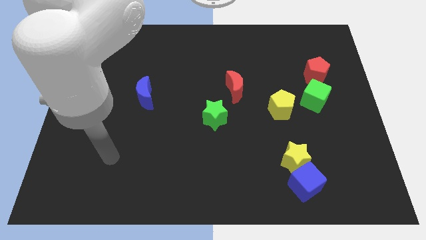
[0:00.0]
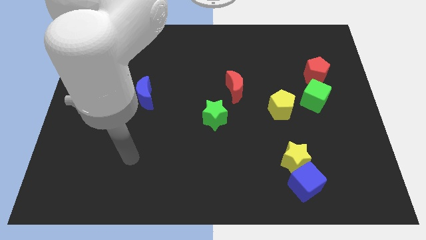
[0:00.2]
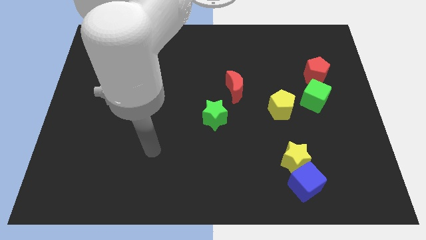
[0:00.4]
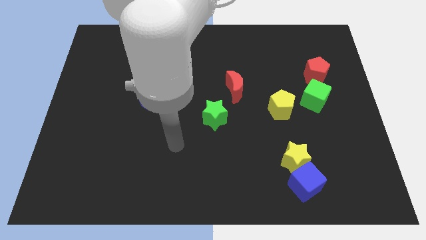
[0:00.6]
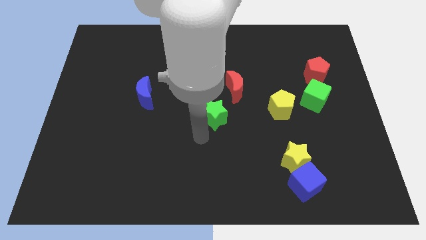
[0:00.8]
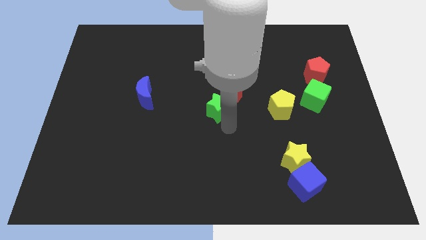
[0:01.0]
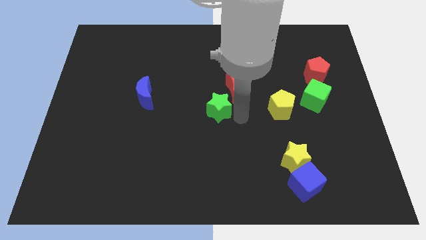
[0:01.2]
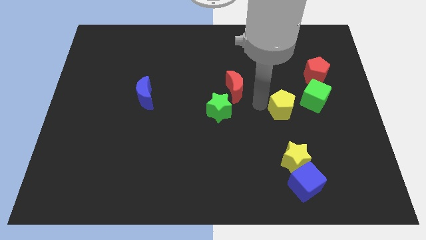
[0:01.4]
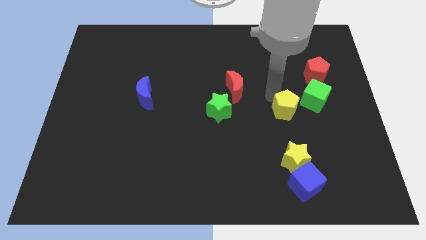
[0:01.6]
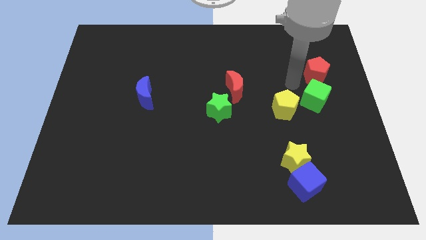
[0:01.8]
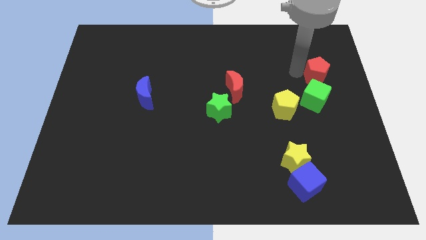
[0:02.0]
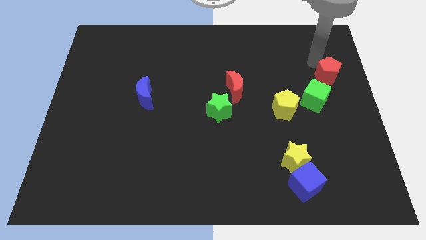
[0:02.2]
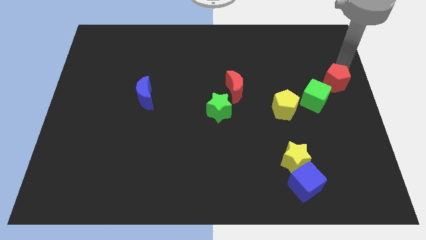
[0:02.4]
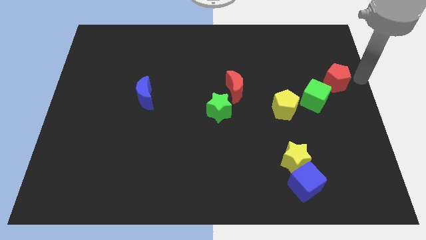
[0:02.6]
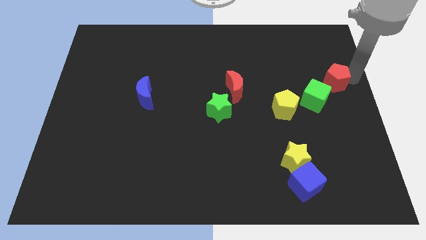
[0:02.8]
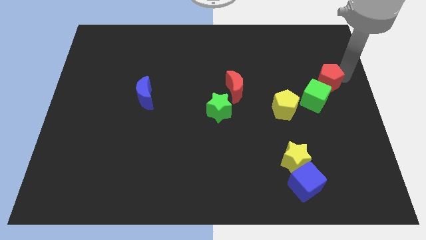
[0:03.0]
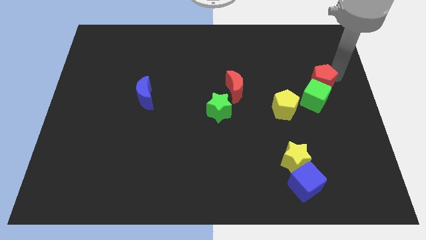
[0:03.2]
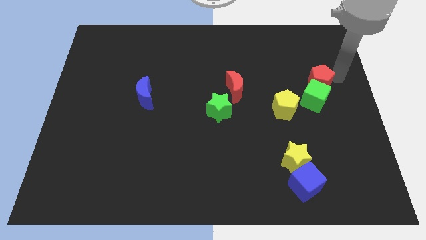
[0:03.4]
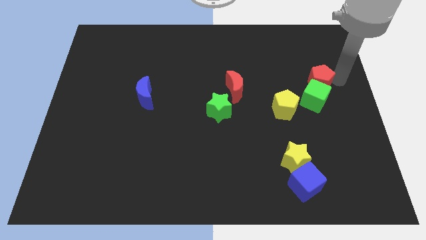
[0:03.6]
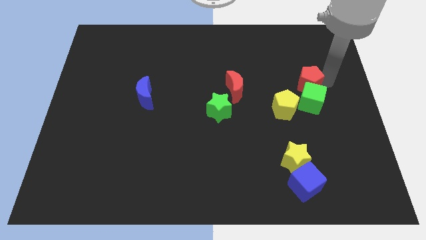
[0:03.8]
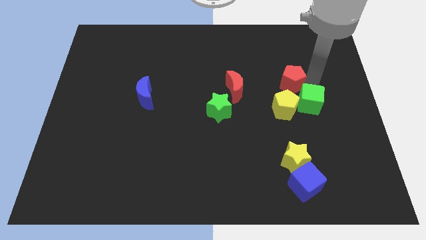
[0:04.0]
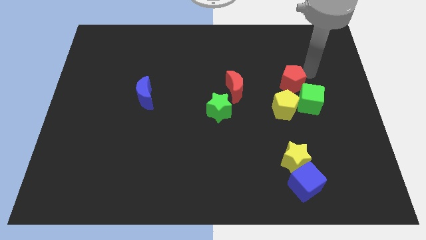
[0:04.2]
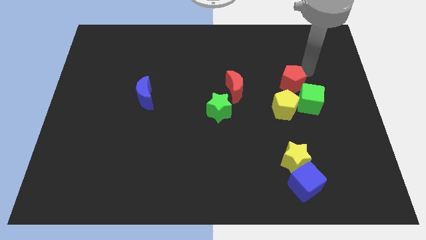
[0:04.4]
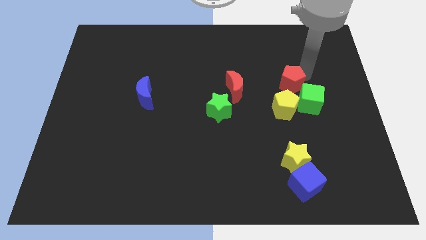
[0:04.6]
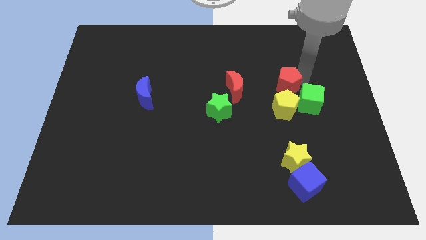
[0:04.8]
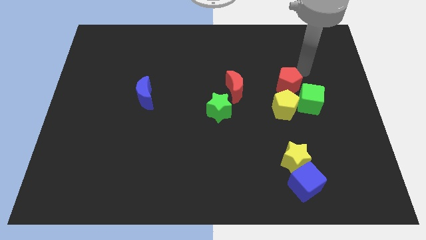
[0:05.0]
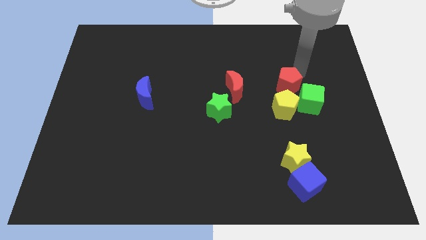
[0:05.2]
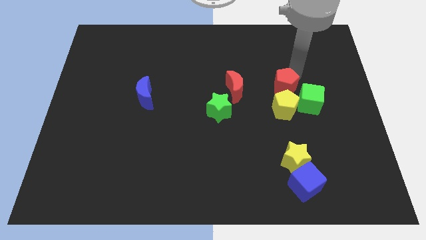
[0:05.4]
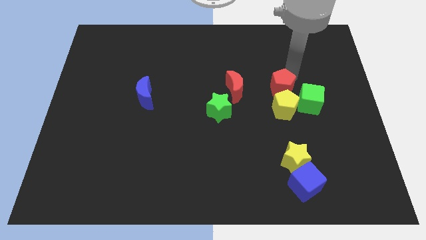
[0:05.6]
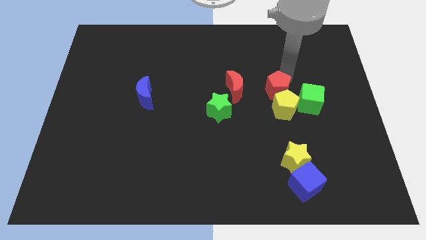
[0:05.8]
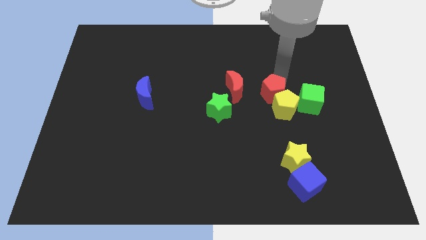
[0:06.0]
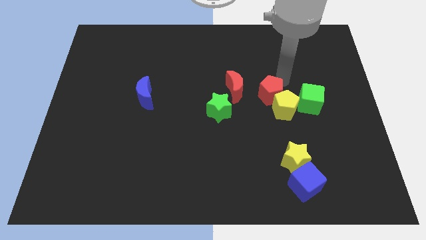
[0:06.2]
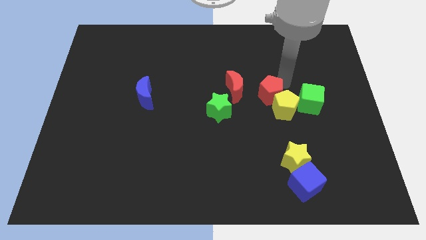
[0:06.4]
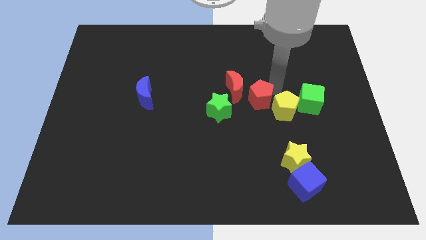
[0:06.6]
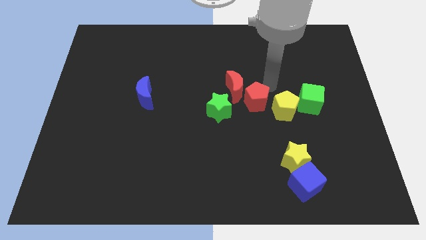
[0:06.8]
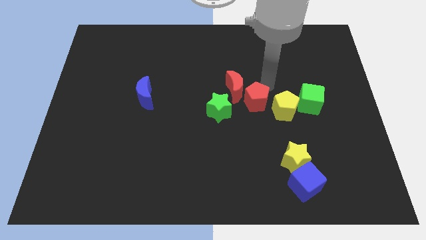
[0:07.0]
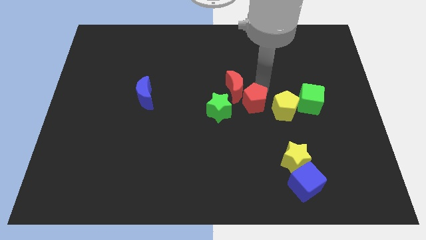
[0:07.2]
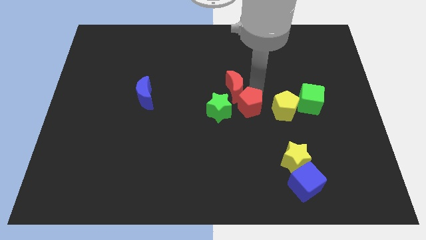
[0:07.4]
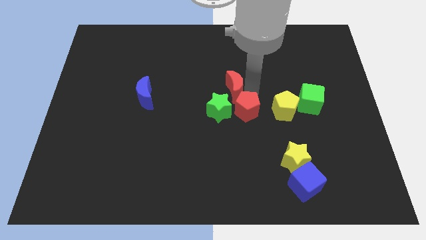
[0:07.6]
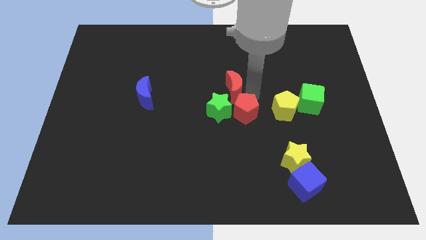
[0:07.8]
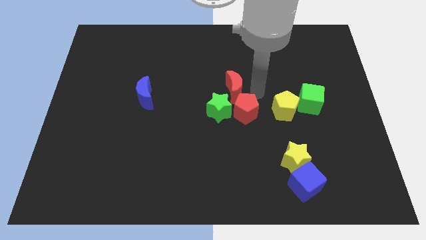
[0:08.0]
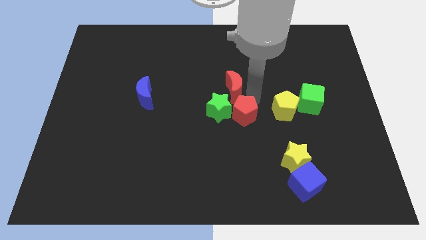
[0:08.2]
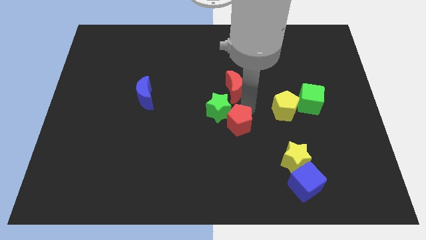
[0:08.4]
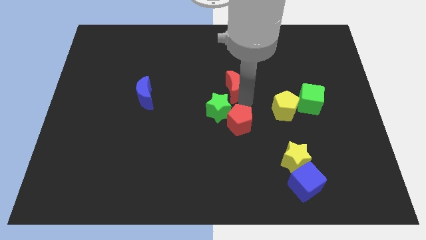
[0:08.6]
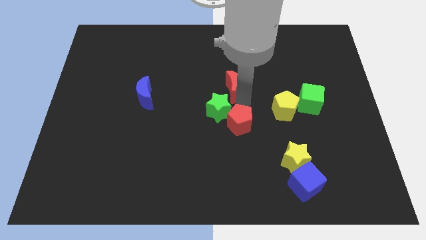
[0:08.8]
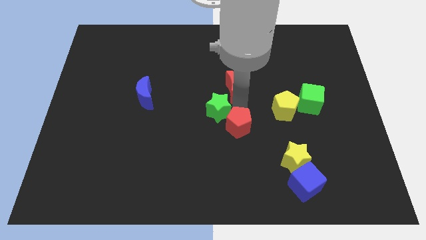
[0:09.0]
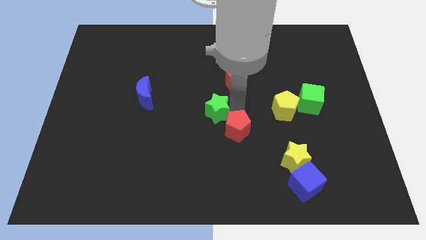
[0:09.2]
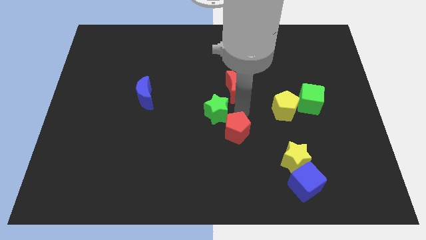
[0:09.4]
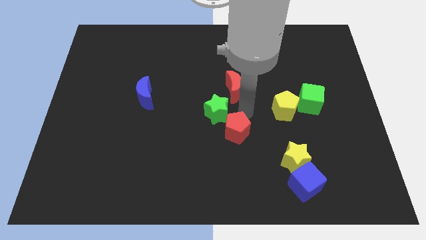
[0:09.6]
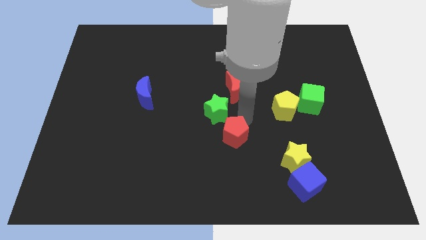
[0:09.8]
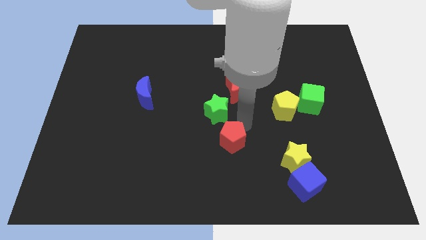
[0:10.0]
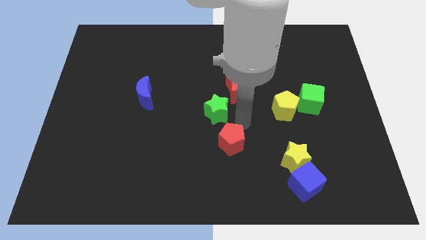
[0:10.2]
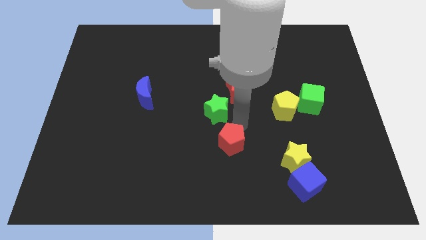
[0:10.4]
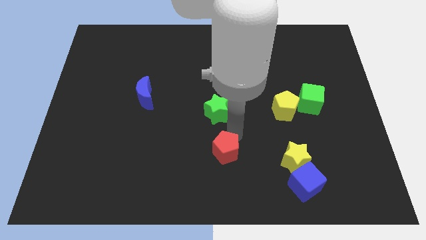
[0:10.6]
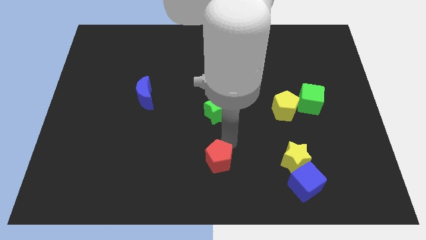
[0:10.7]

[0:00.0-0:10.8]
push the red pentagon to the bottom

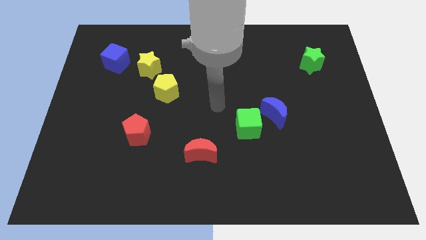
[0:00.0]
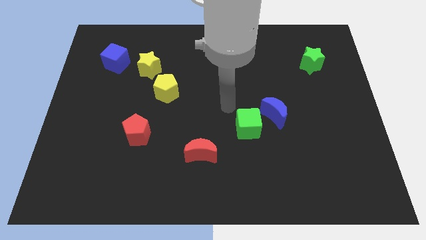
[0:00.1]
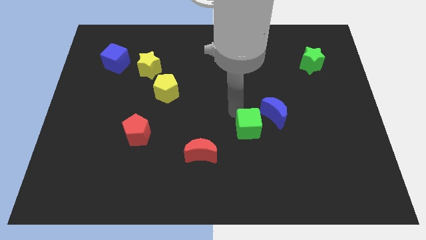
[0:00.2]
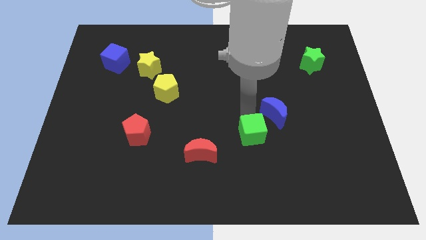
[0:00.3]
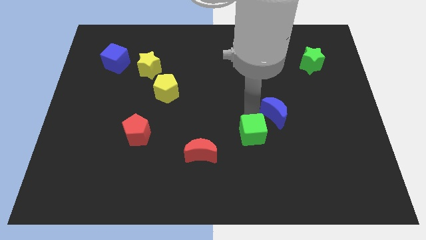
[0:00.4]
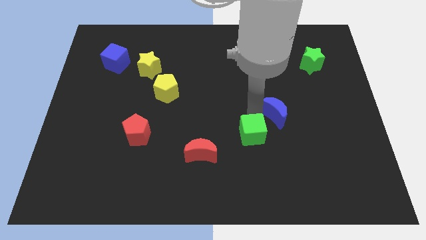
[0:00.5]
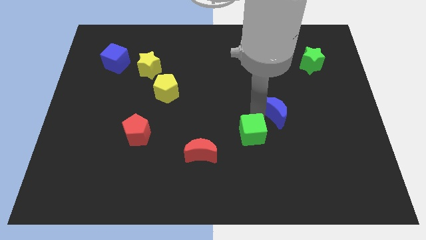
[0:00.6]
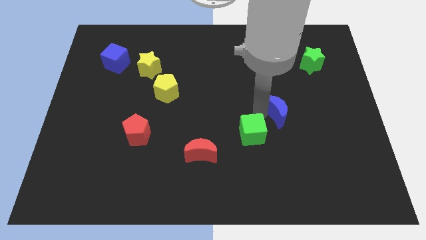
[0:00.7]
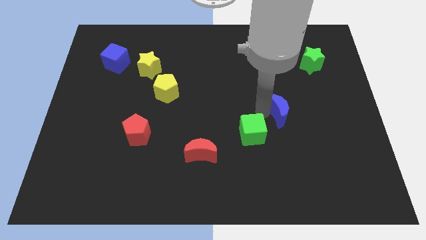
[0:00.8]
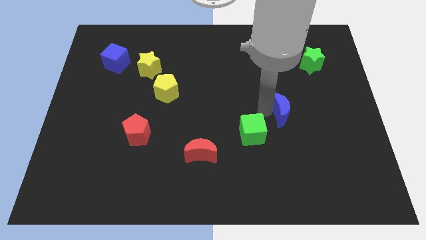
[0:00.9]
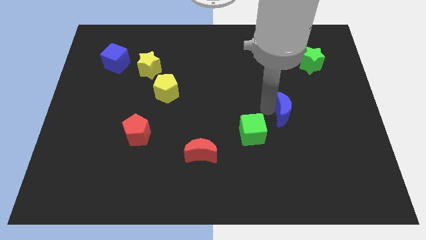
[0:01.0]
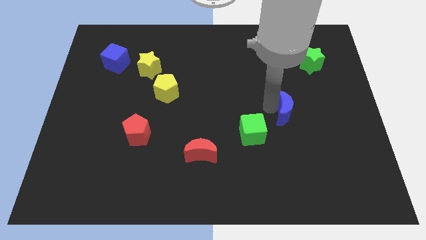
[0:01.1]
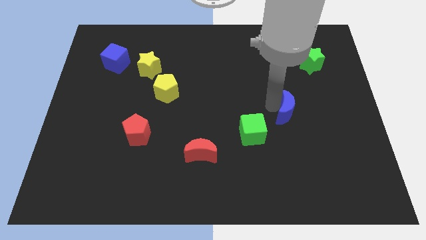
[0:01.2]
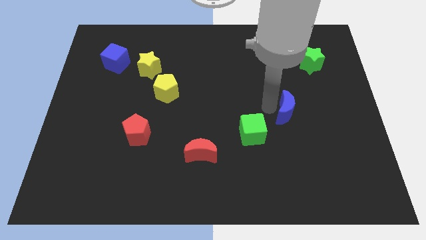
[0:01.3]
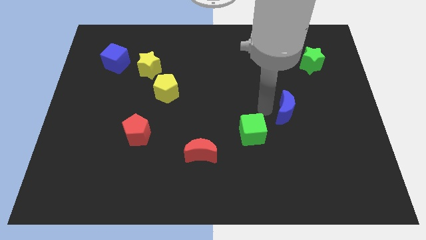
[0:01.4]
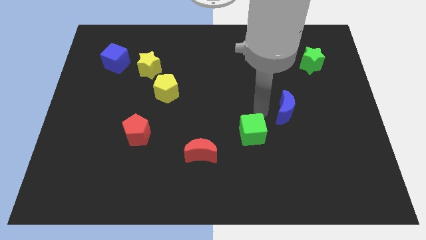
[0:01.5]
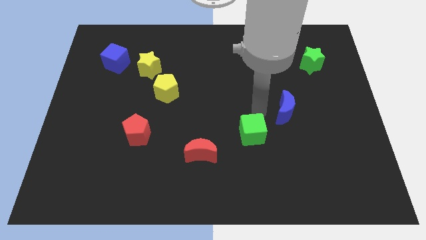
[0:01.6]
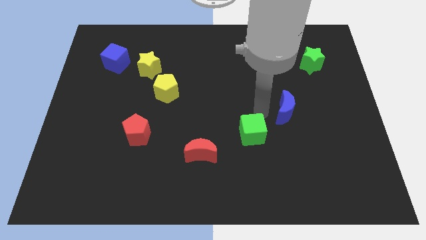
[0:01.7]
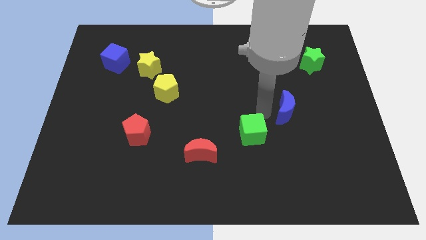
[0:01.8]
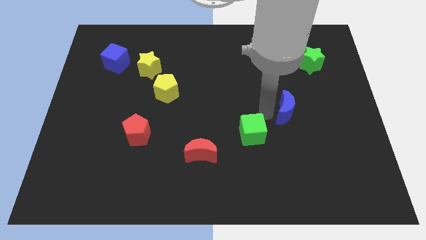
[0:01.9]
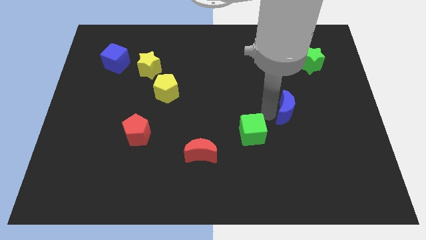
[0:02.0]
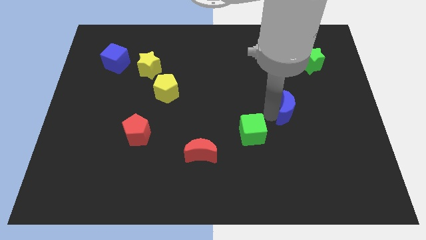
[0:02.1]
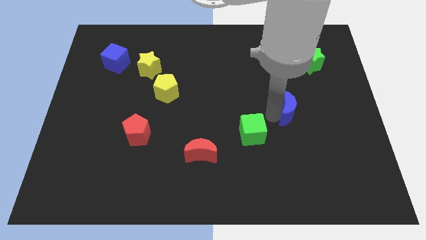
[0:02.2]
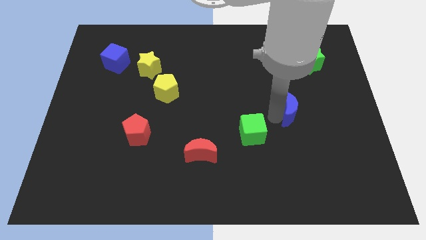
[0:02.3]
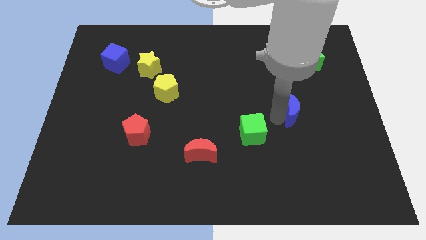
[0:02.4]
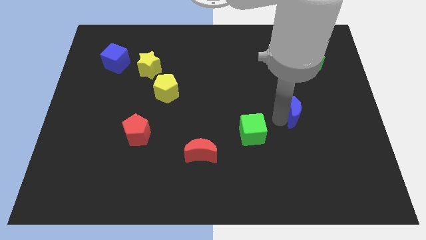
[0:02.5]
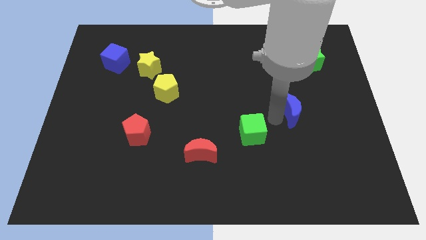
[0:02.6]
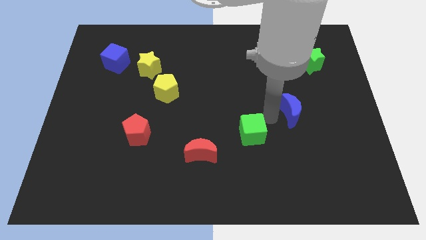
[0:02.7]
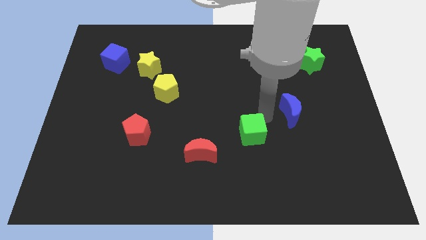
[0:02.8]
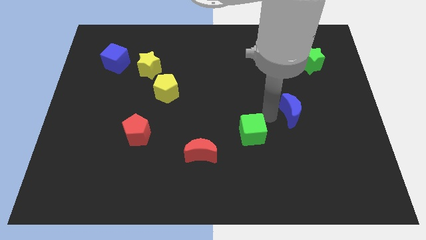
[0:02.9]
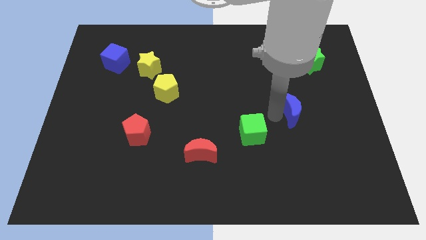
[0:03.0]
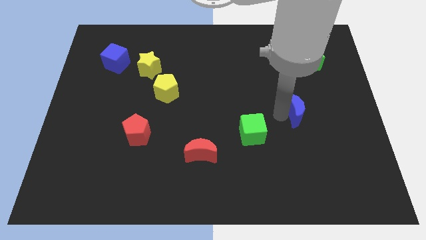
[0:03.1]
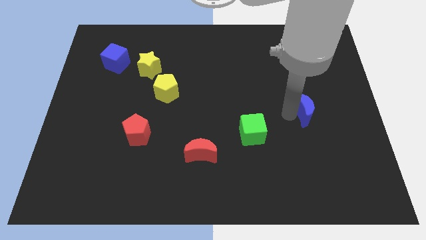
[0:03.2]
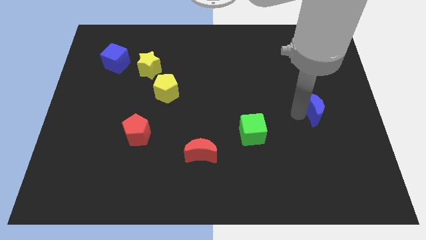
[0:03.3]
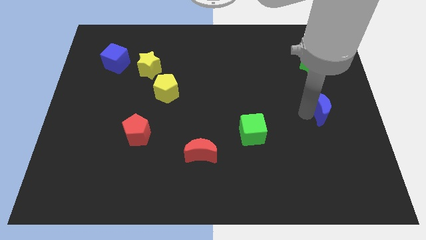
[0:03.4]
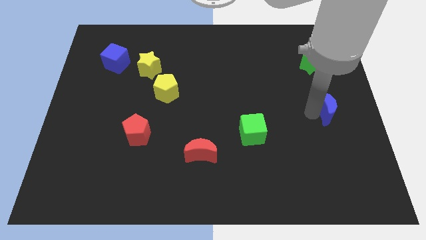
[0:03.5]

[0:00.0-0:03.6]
put the blue moon to the right side of the board
